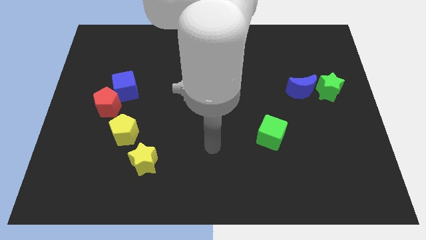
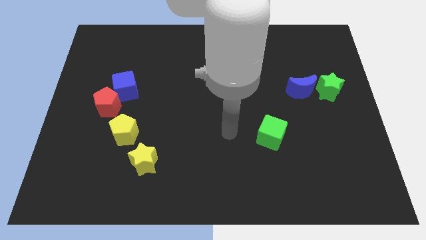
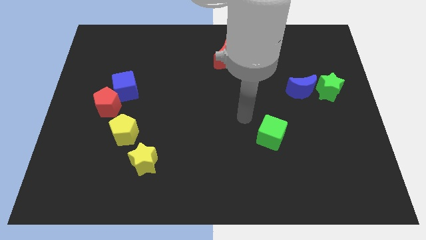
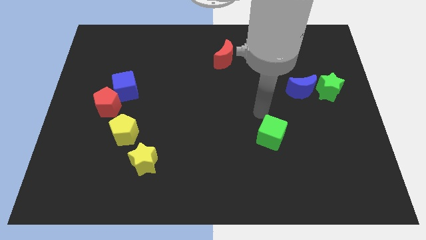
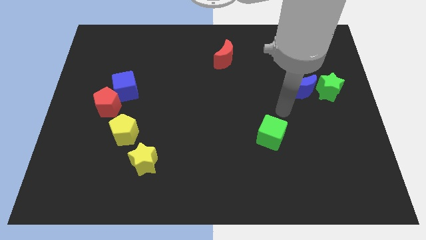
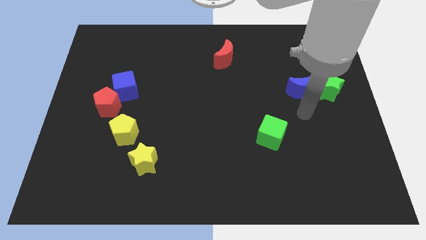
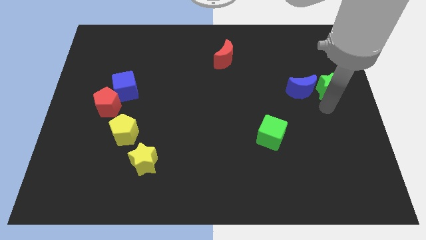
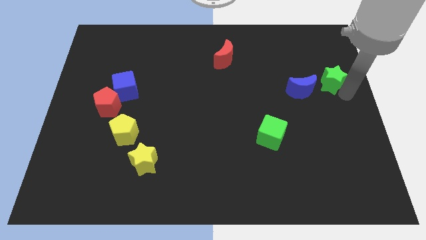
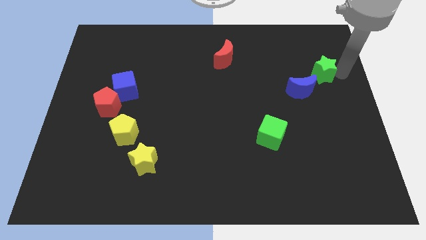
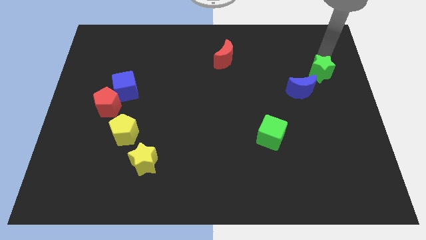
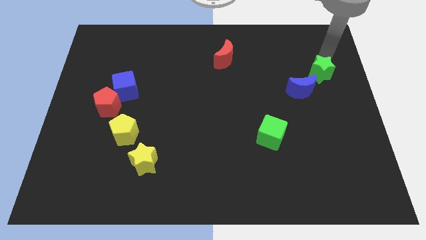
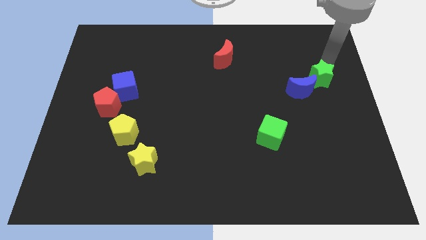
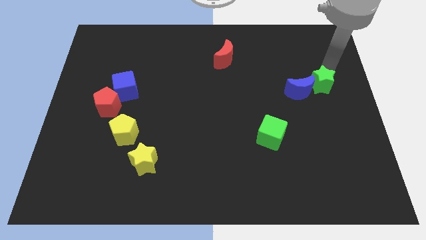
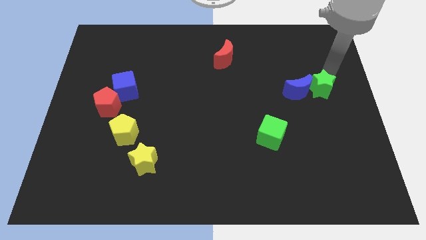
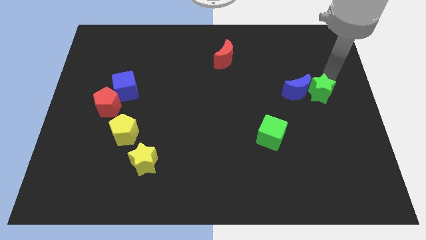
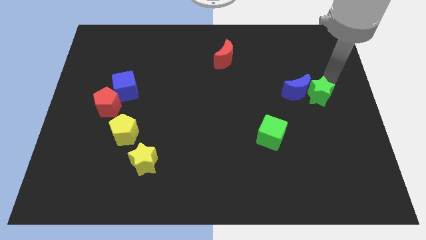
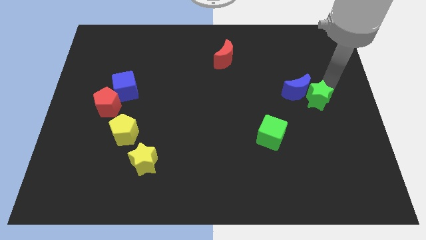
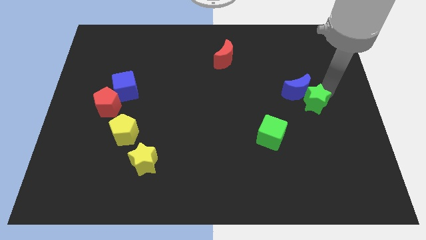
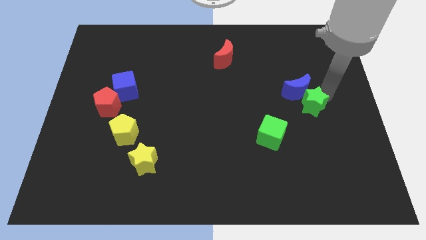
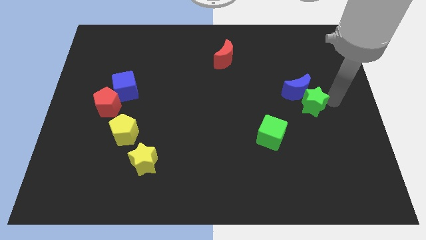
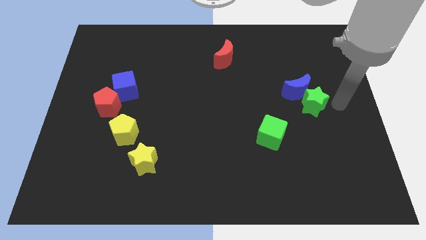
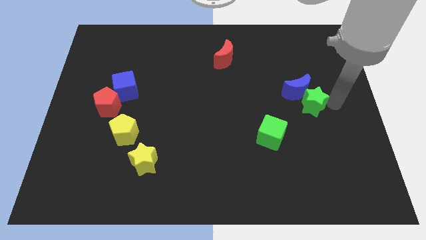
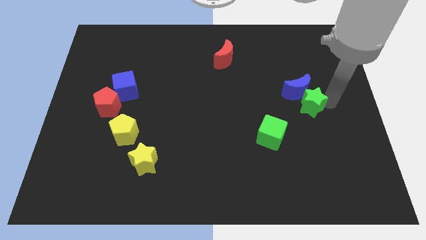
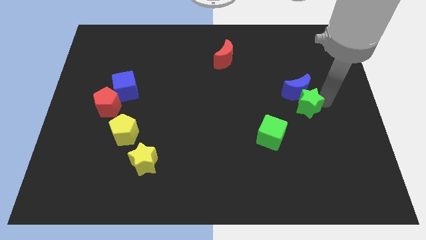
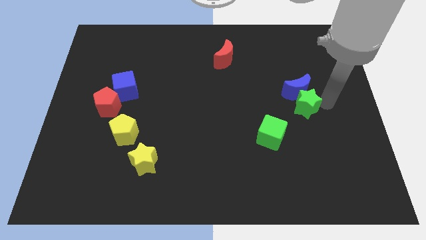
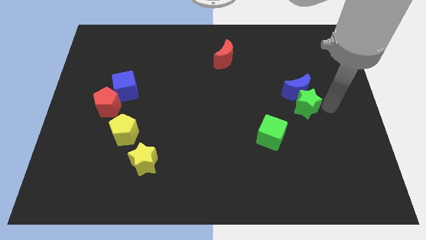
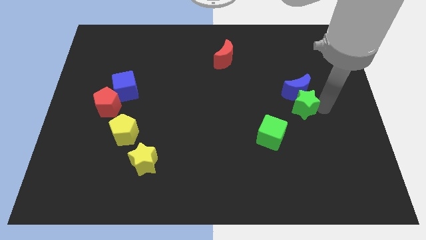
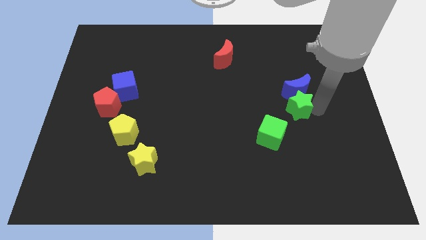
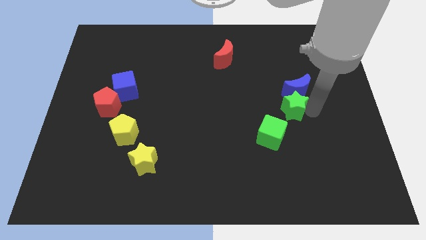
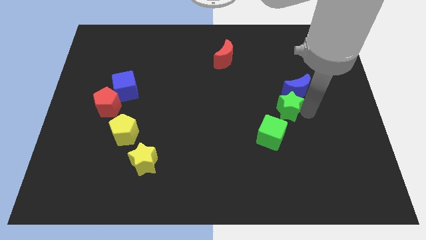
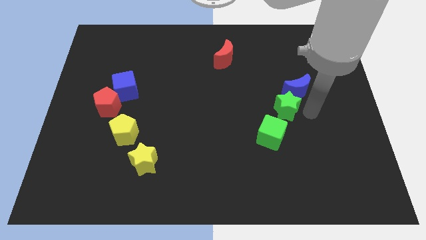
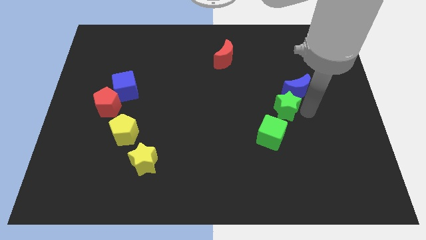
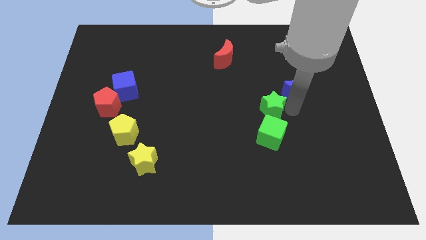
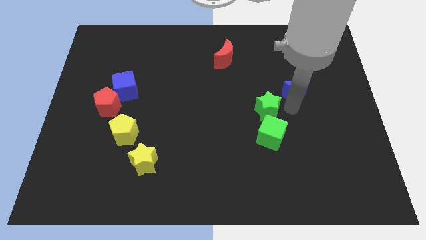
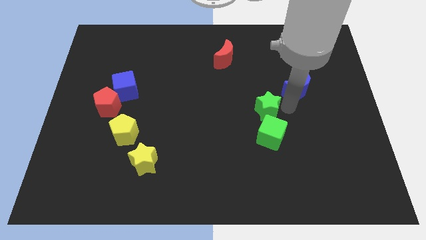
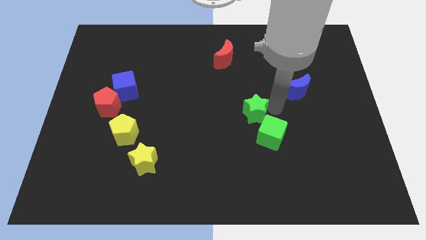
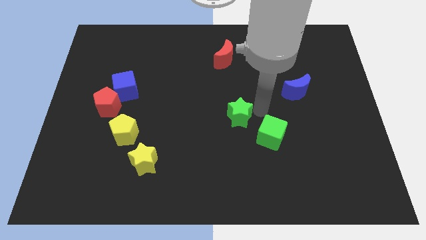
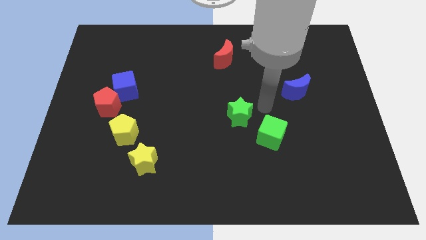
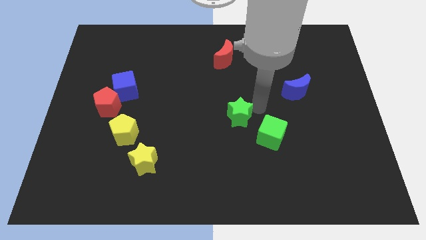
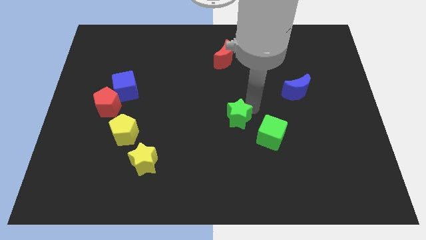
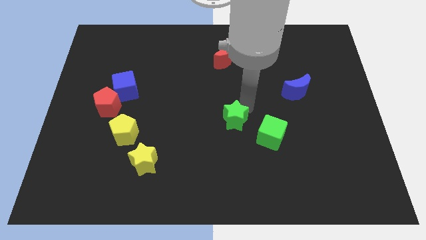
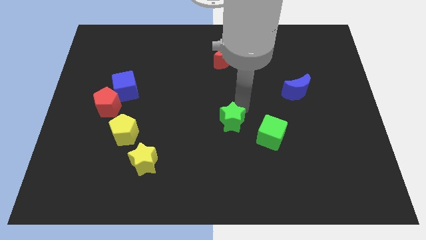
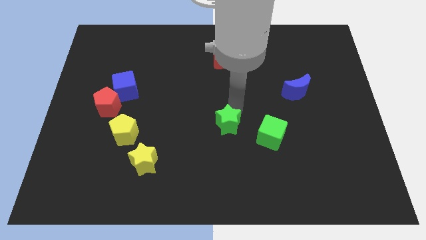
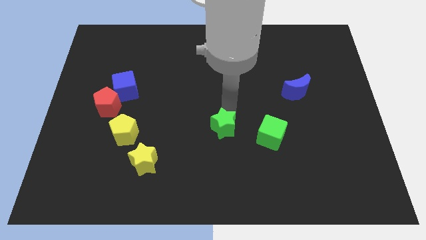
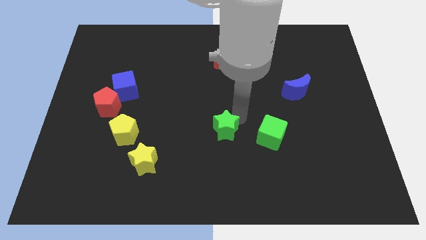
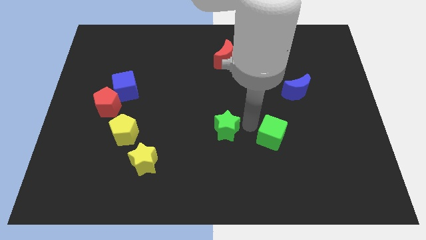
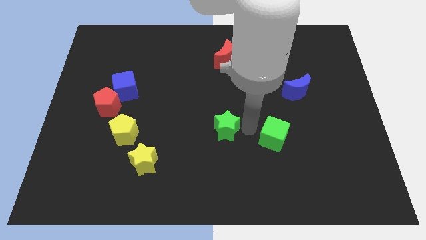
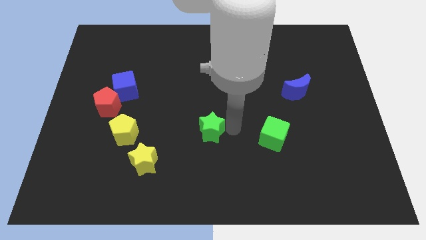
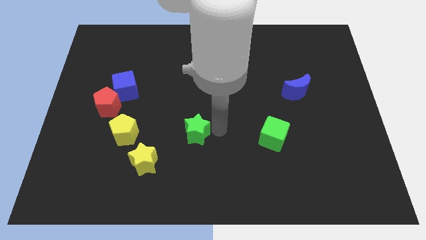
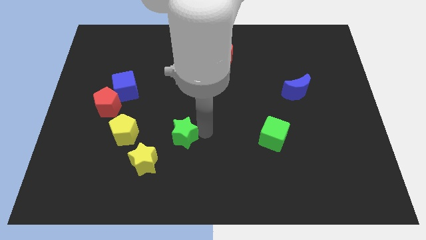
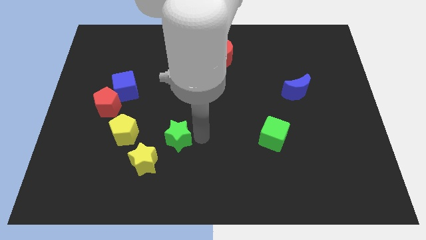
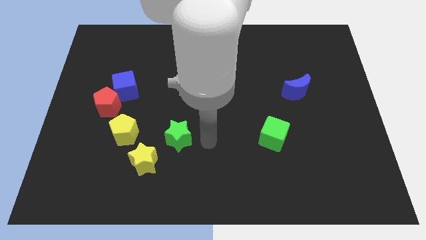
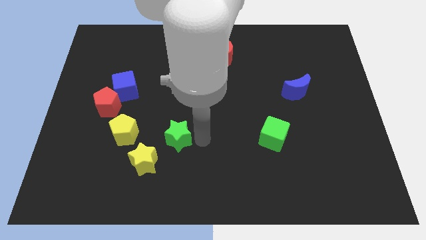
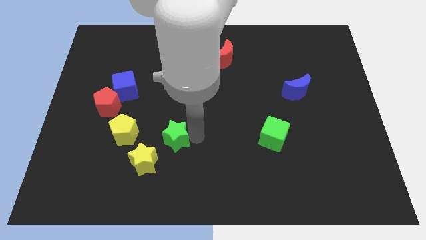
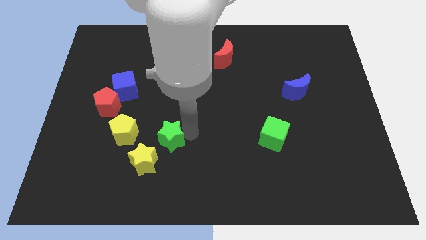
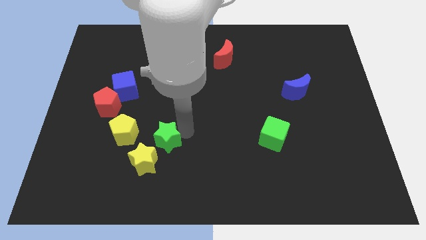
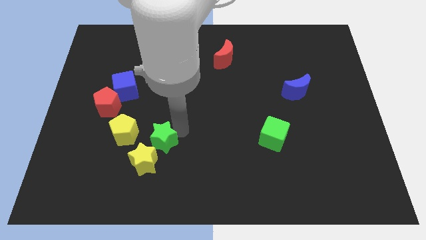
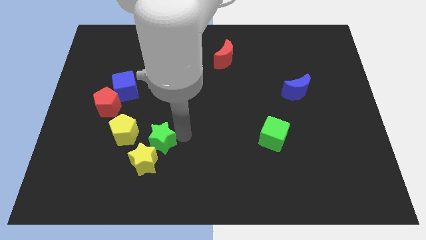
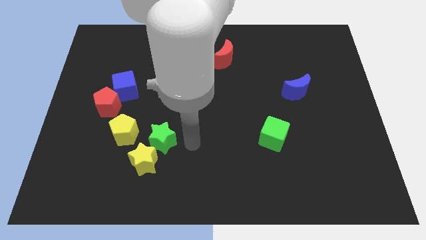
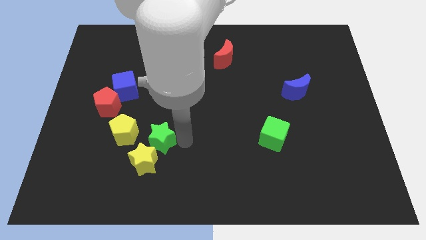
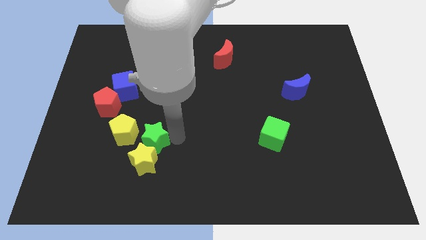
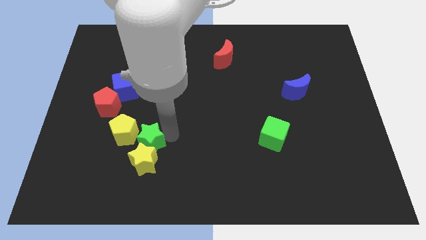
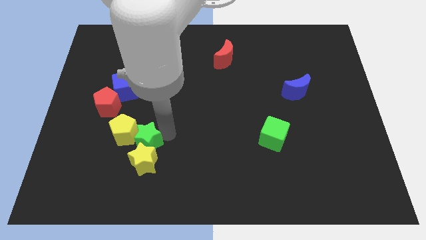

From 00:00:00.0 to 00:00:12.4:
slide the green star close to the yellow pentagon

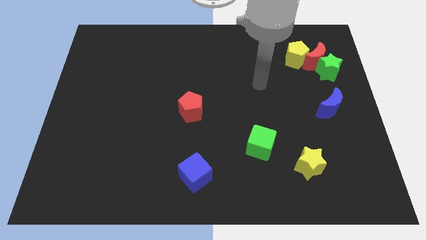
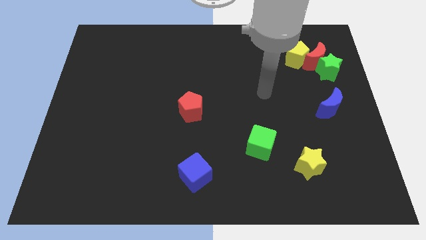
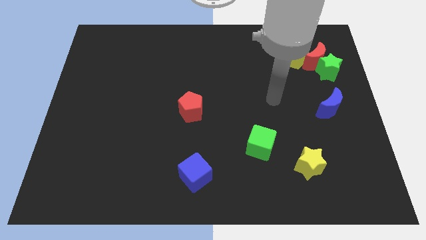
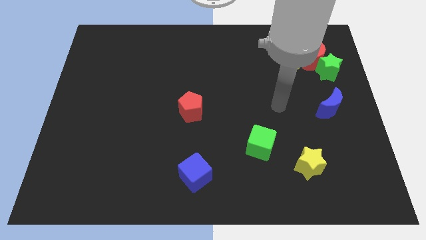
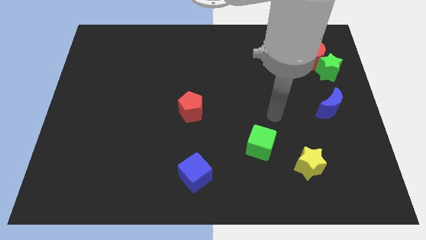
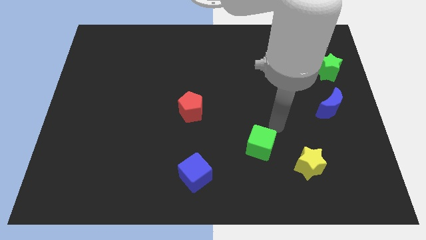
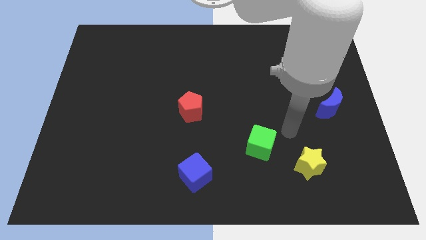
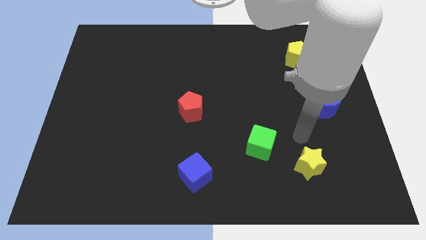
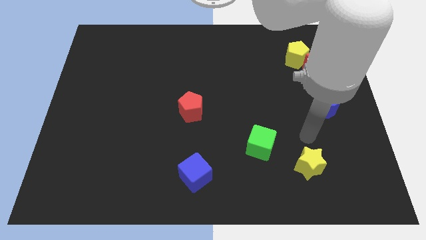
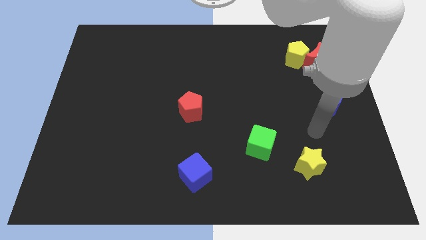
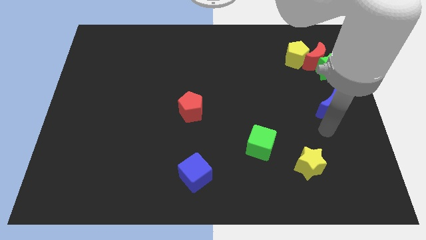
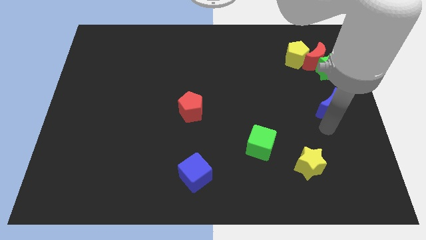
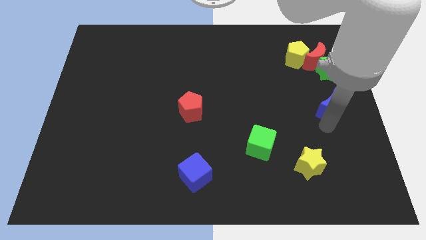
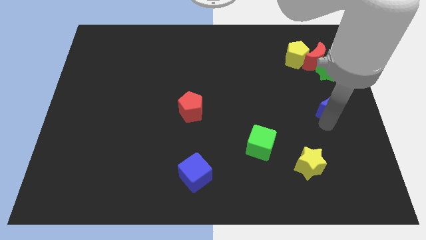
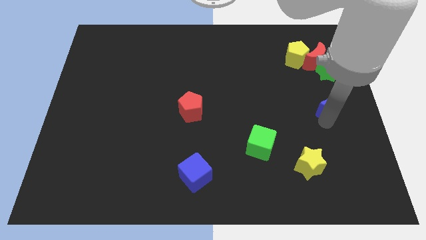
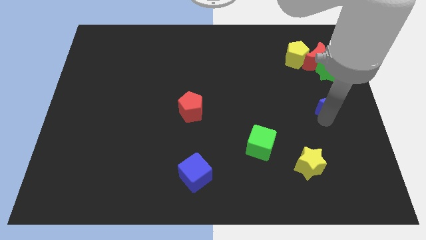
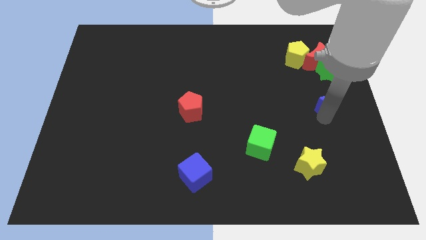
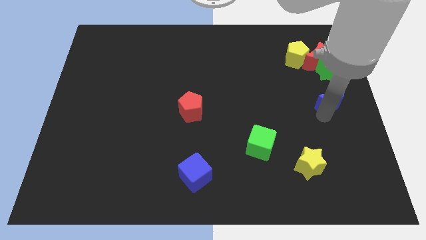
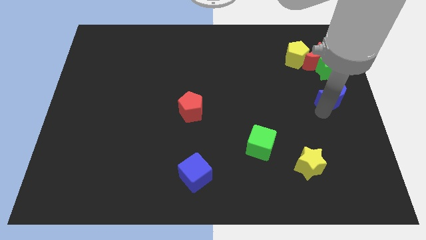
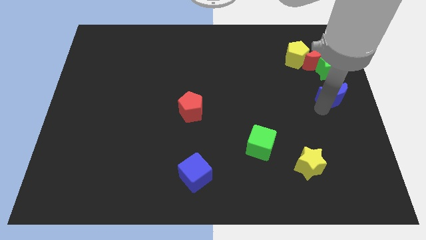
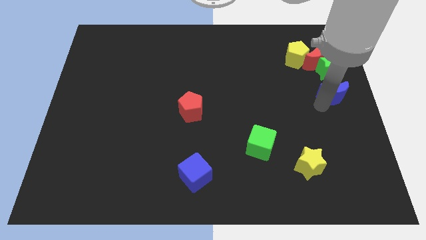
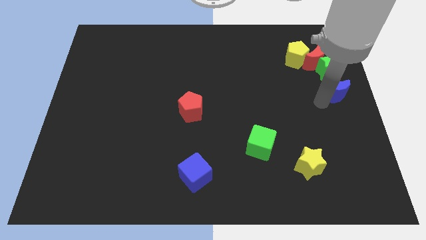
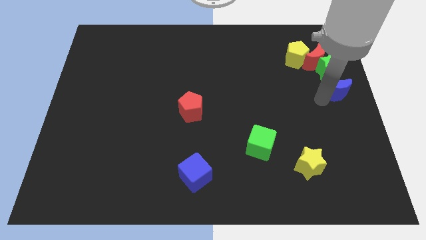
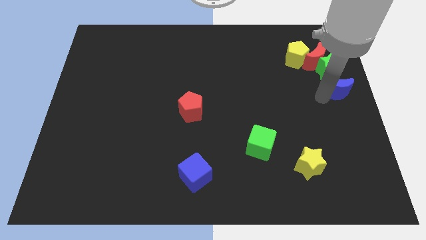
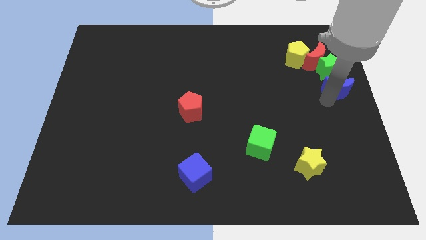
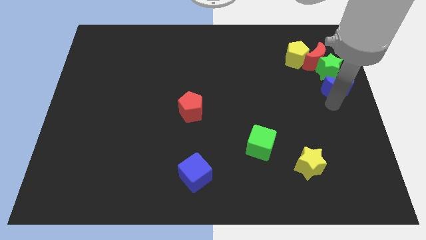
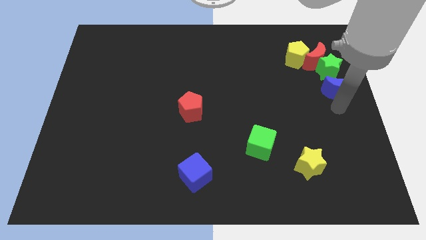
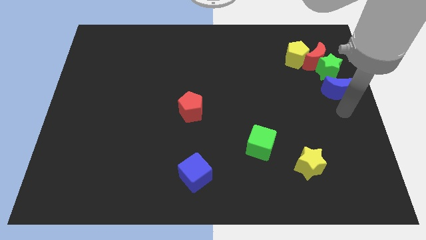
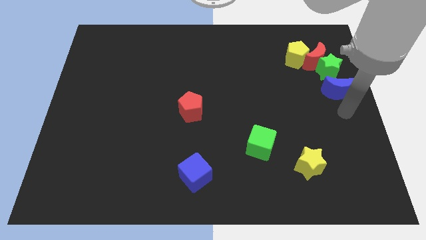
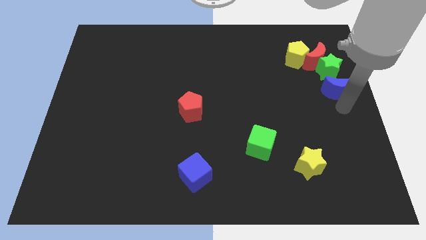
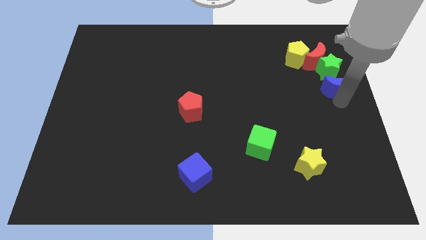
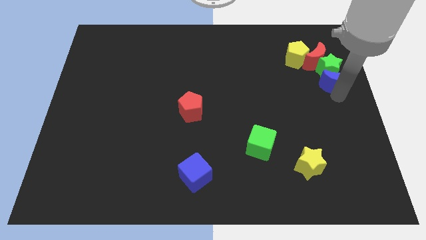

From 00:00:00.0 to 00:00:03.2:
slide the blue moon close to the green star
